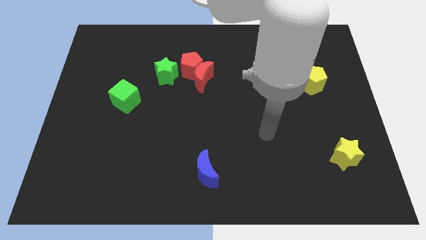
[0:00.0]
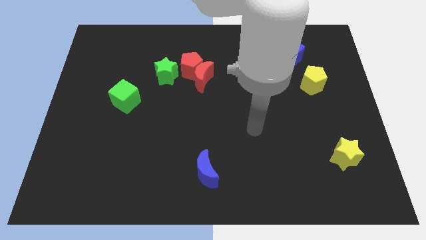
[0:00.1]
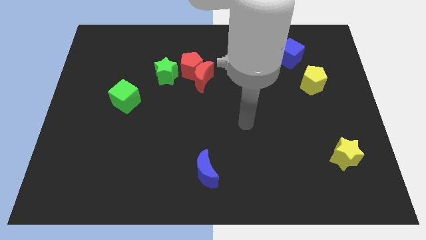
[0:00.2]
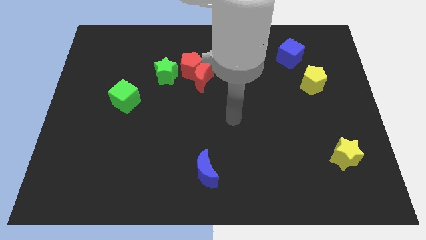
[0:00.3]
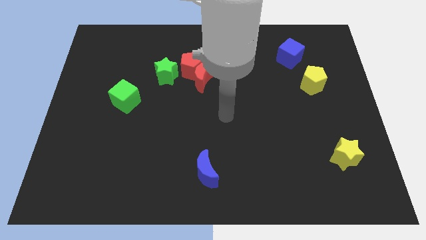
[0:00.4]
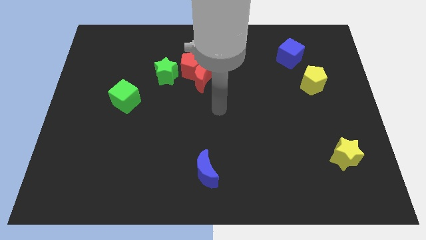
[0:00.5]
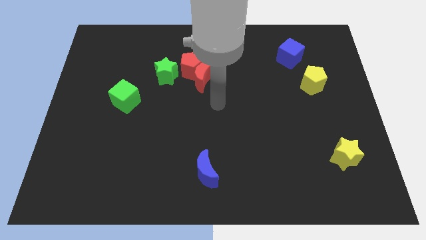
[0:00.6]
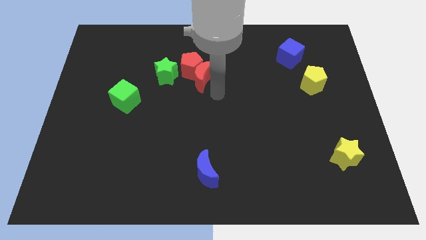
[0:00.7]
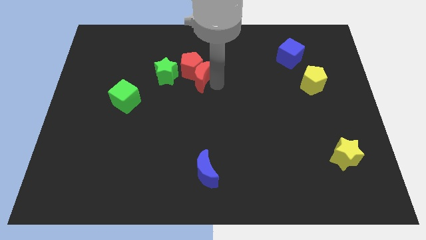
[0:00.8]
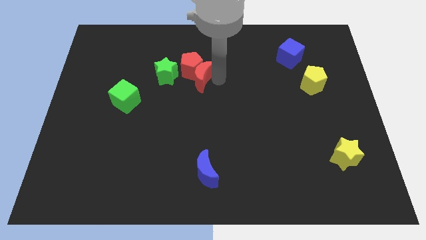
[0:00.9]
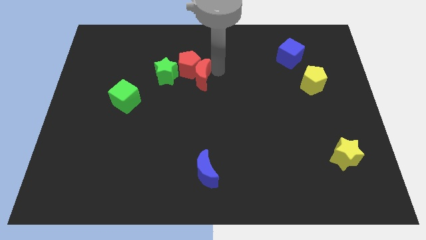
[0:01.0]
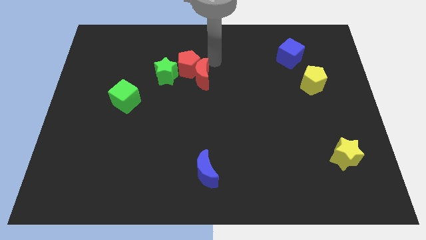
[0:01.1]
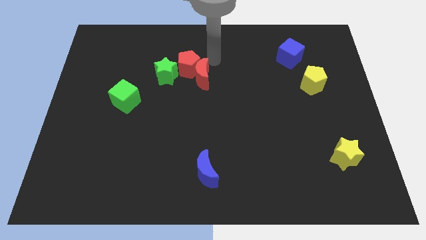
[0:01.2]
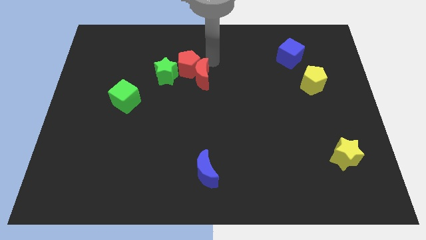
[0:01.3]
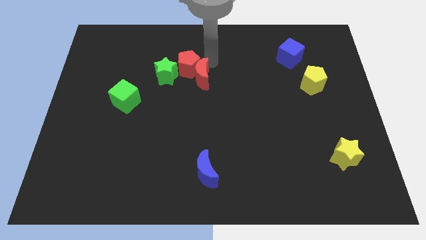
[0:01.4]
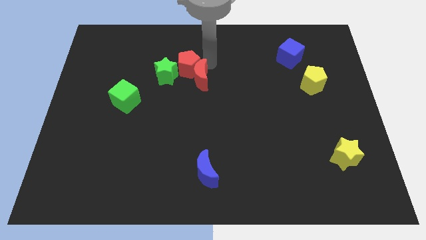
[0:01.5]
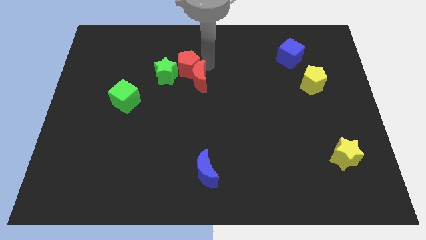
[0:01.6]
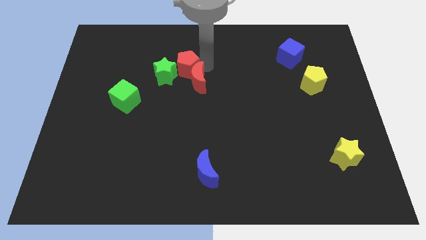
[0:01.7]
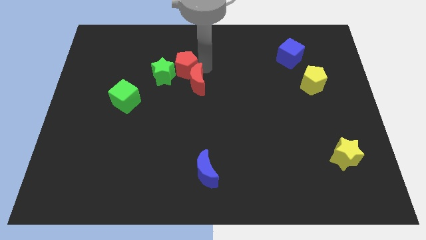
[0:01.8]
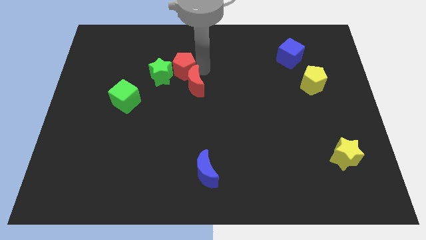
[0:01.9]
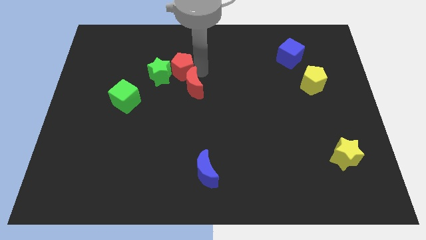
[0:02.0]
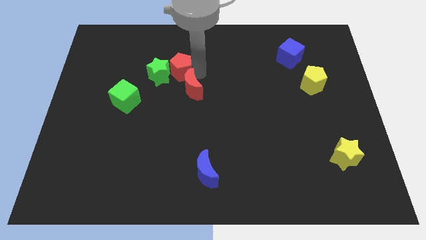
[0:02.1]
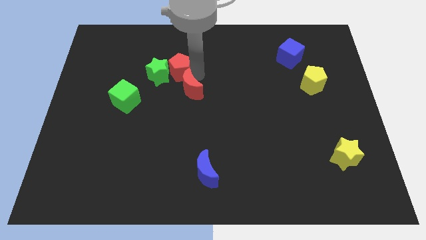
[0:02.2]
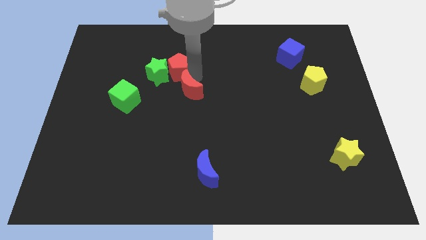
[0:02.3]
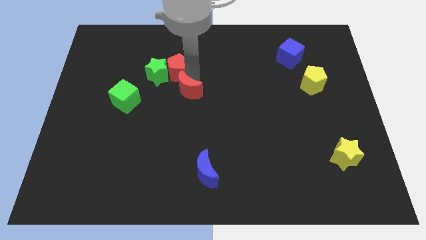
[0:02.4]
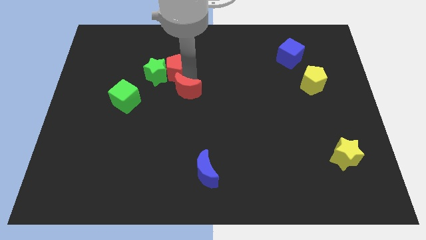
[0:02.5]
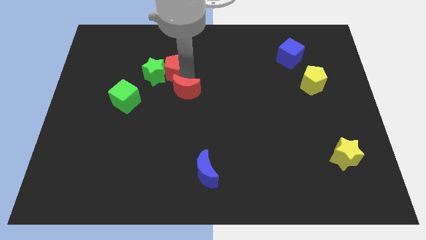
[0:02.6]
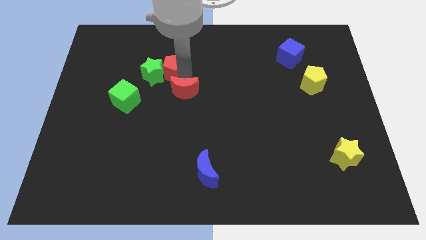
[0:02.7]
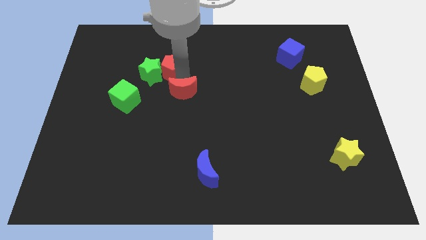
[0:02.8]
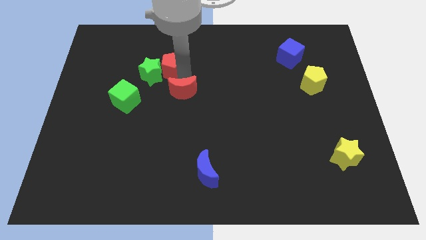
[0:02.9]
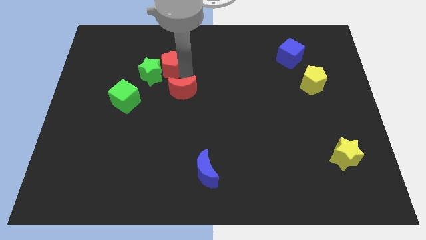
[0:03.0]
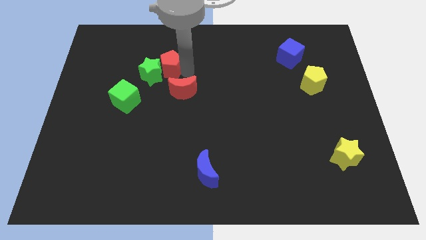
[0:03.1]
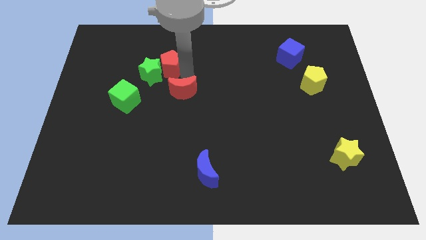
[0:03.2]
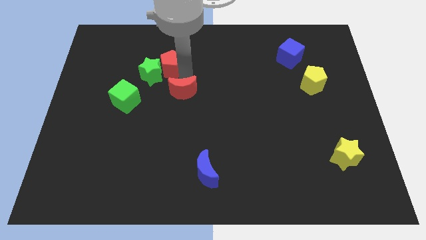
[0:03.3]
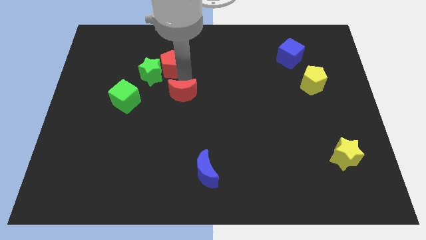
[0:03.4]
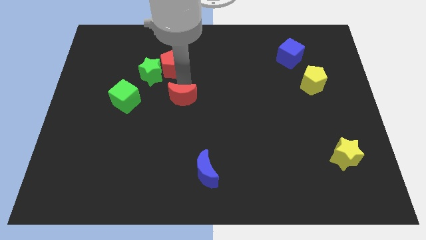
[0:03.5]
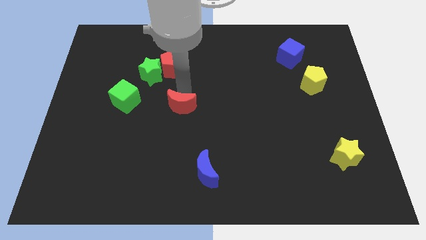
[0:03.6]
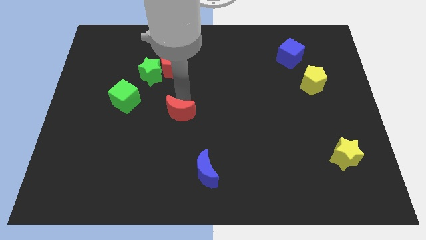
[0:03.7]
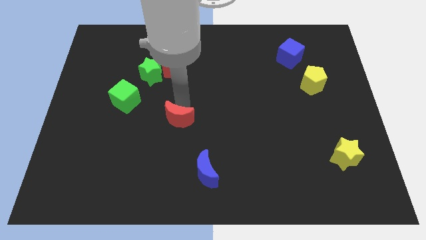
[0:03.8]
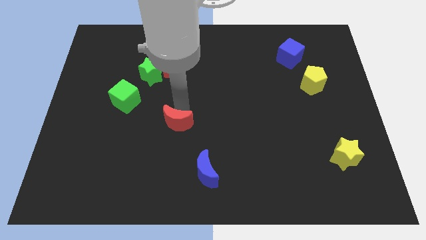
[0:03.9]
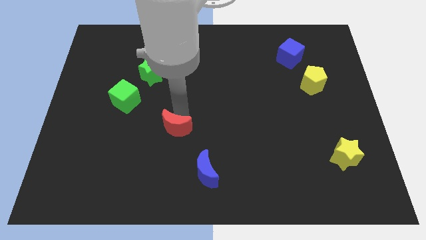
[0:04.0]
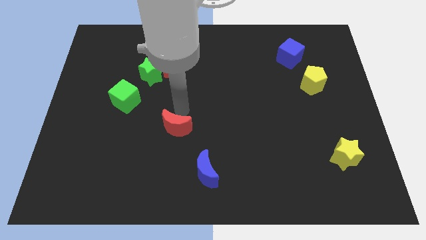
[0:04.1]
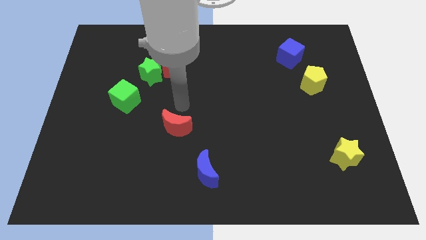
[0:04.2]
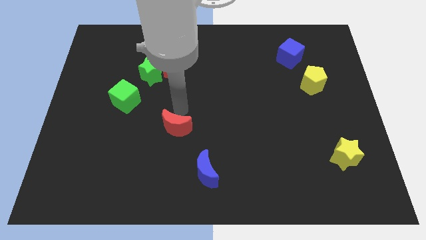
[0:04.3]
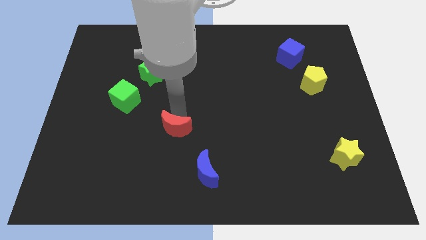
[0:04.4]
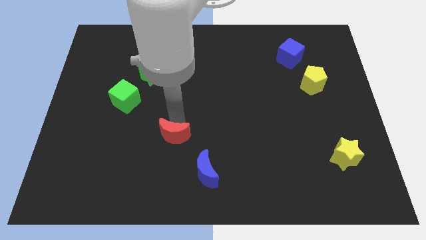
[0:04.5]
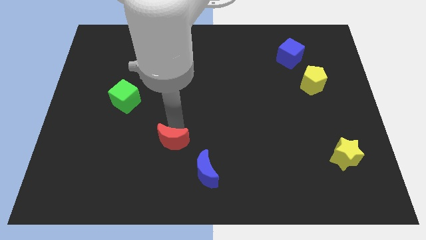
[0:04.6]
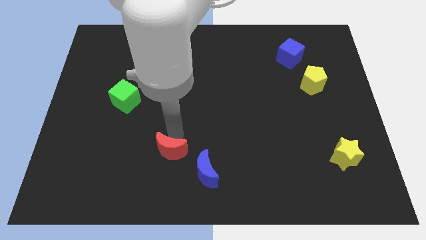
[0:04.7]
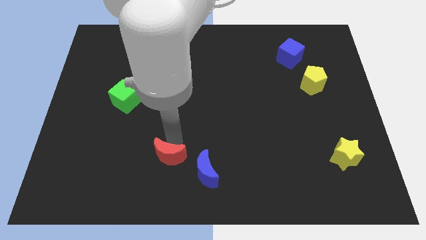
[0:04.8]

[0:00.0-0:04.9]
slide the red moon to the left side of the blue moon

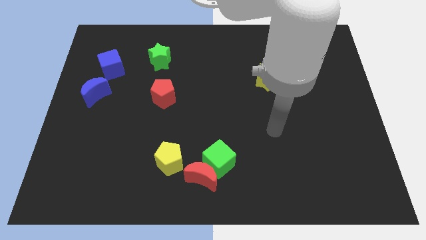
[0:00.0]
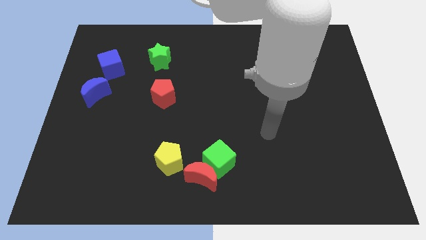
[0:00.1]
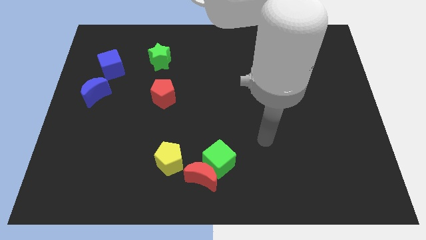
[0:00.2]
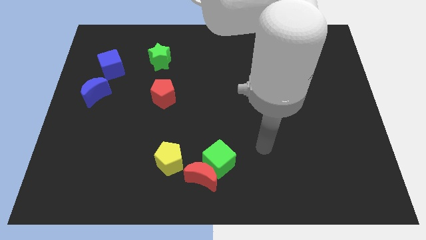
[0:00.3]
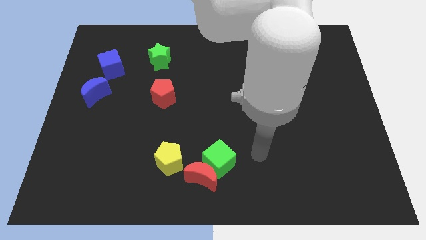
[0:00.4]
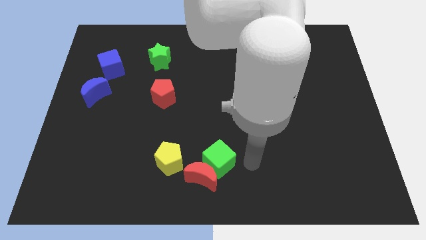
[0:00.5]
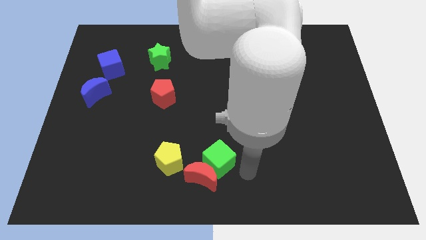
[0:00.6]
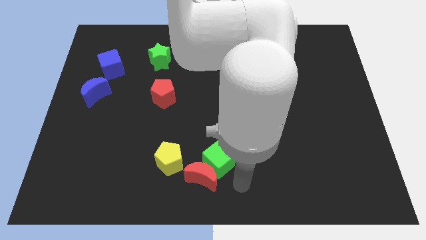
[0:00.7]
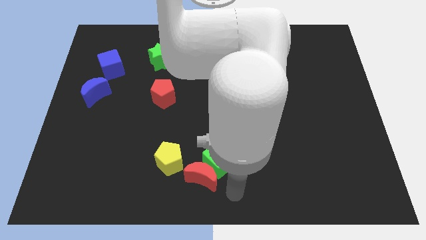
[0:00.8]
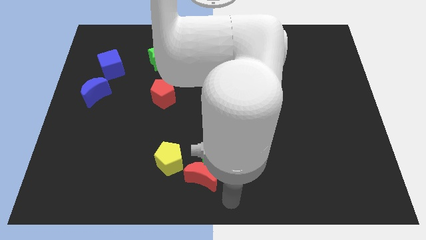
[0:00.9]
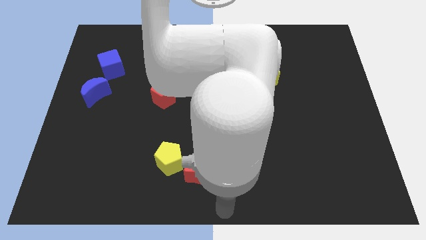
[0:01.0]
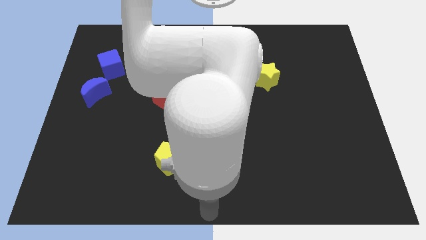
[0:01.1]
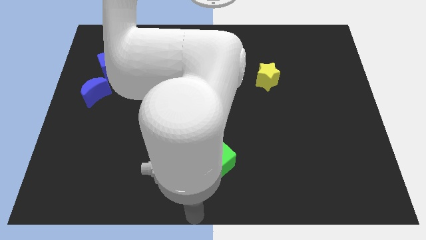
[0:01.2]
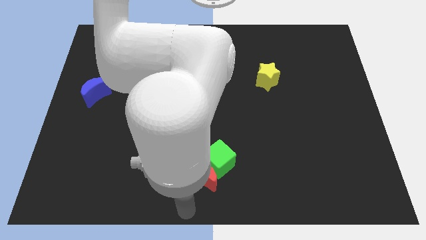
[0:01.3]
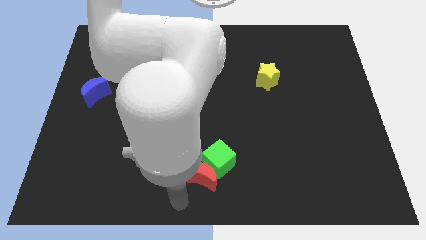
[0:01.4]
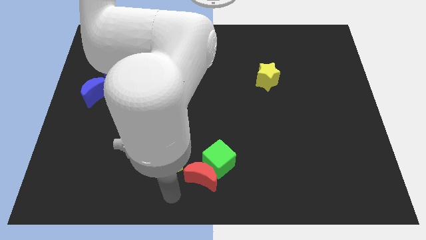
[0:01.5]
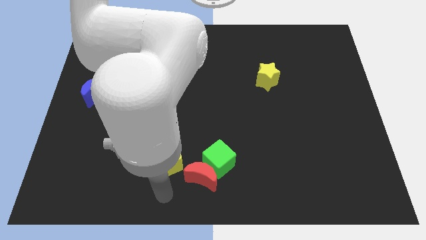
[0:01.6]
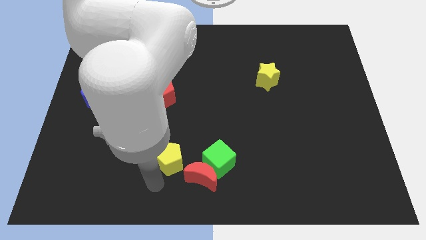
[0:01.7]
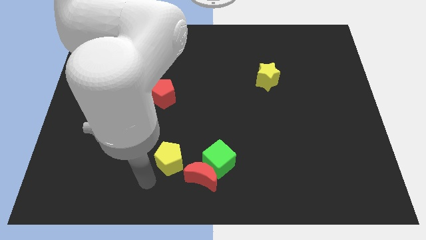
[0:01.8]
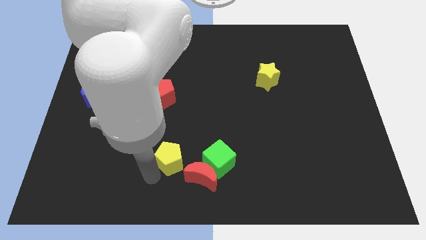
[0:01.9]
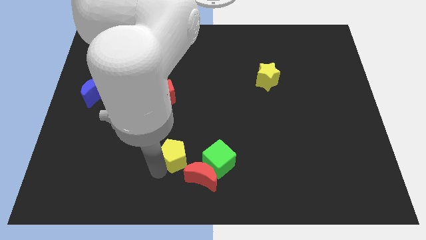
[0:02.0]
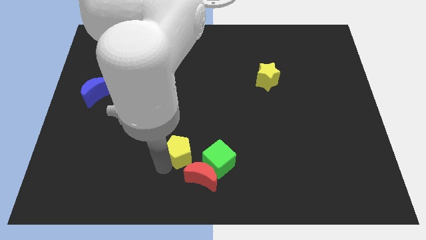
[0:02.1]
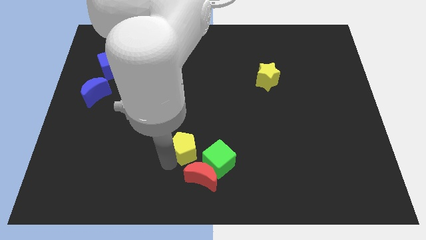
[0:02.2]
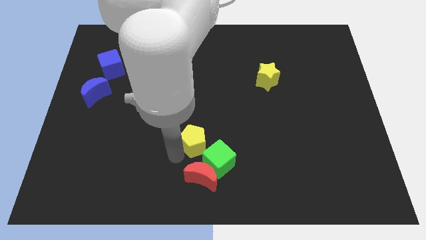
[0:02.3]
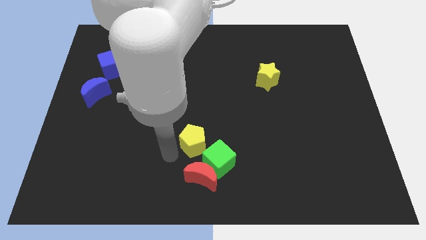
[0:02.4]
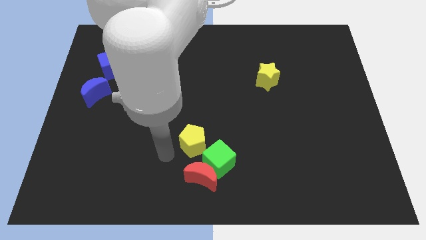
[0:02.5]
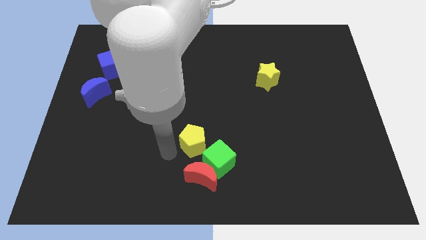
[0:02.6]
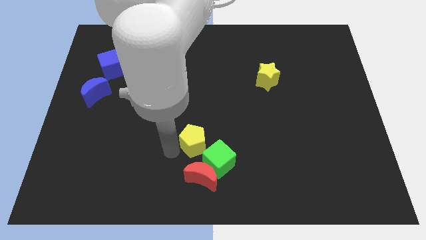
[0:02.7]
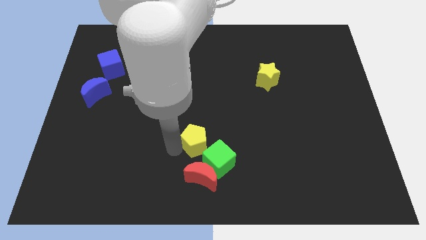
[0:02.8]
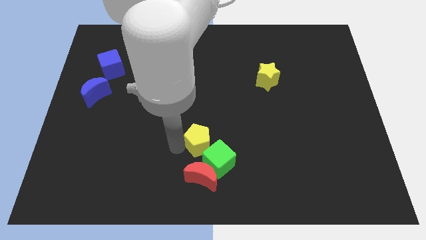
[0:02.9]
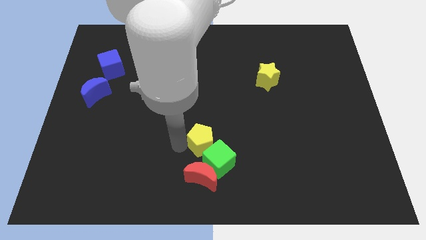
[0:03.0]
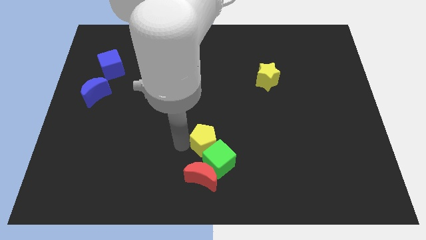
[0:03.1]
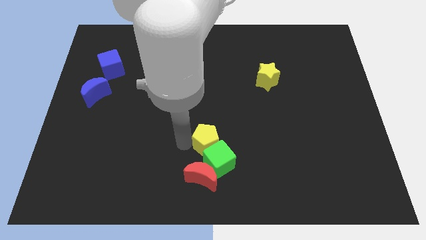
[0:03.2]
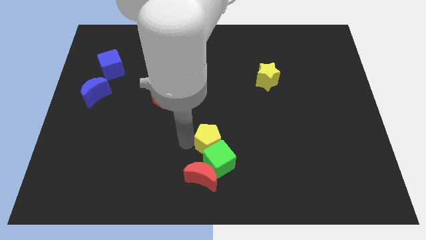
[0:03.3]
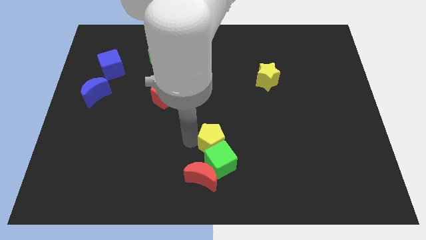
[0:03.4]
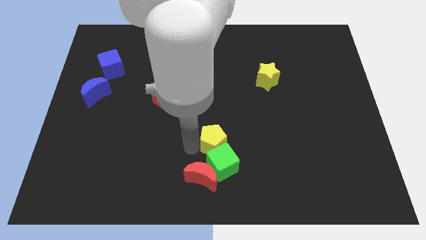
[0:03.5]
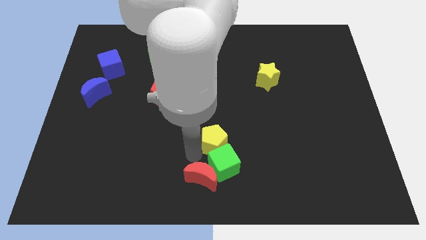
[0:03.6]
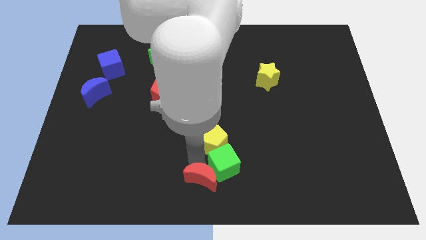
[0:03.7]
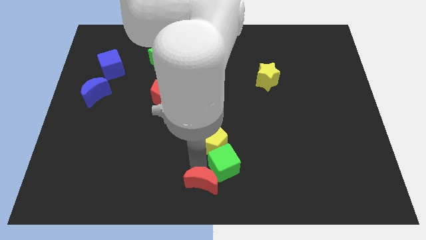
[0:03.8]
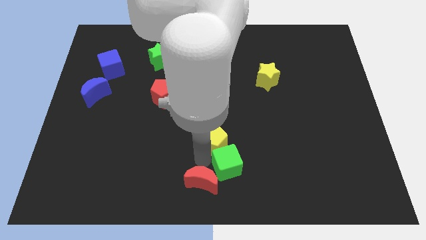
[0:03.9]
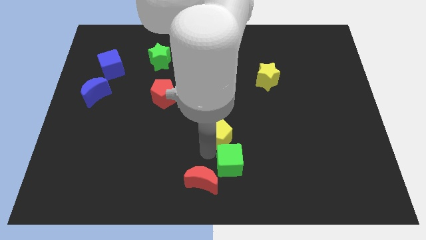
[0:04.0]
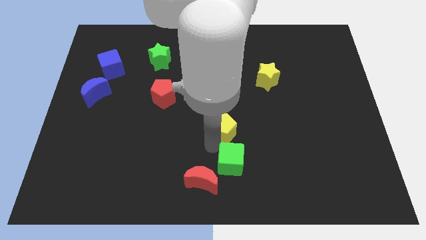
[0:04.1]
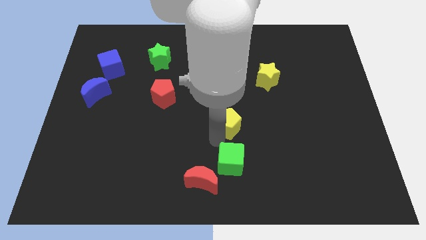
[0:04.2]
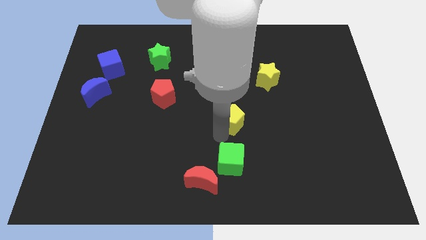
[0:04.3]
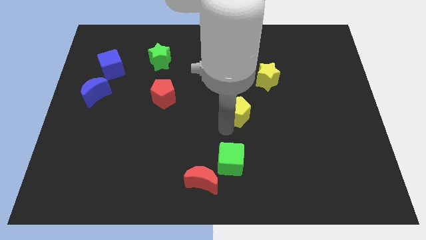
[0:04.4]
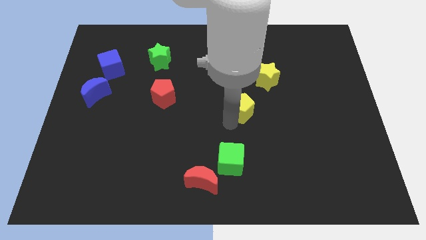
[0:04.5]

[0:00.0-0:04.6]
put the yellow pentagon diagonally down and to the left of the yellow star
